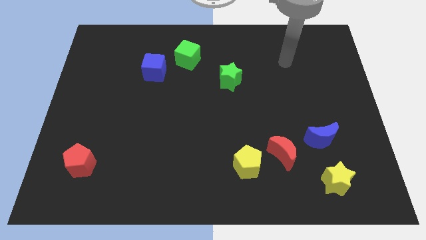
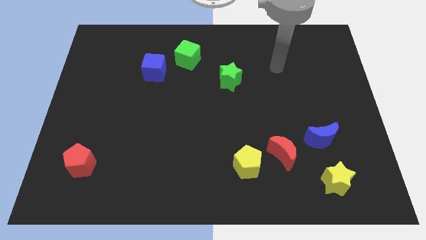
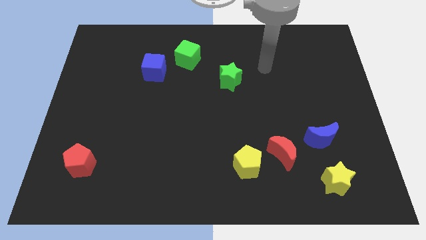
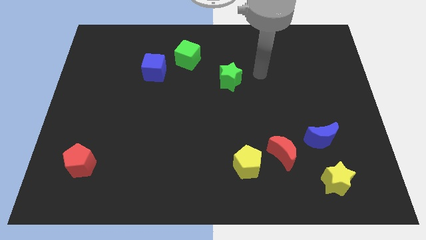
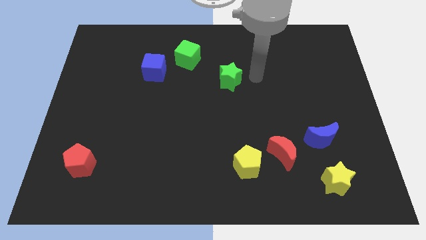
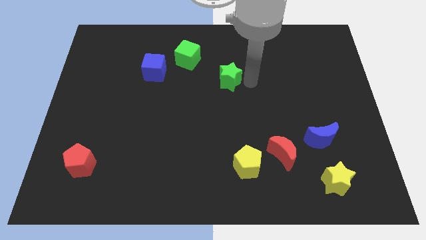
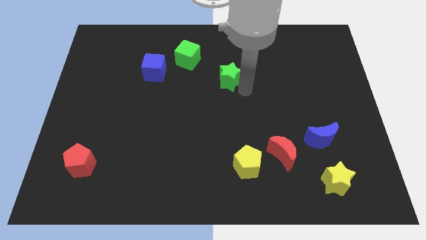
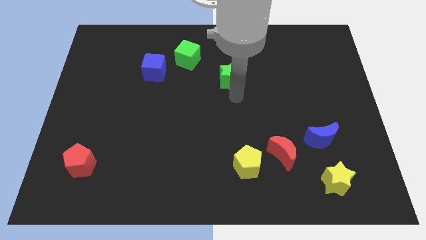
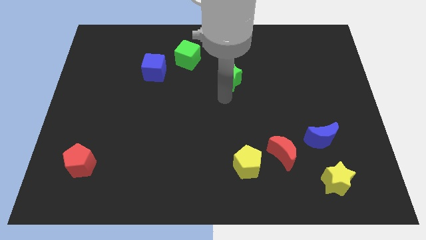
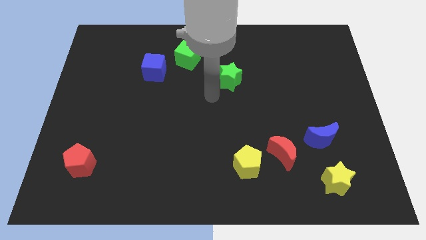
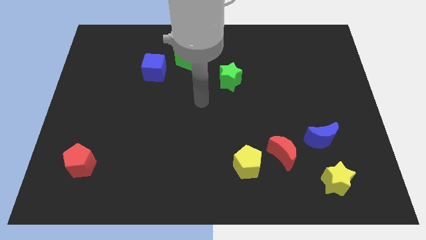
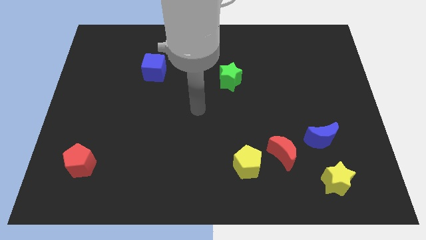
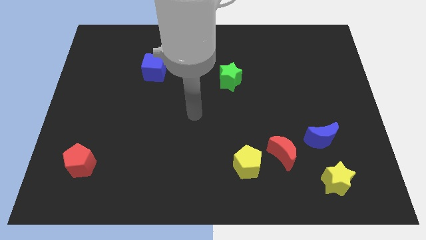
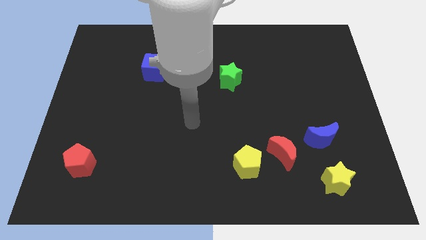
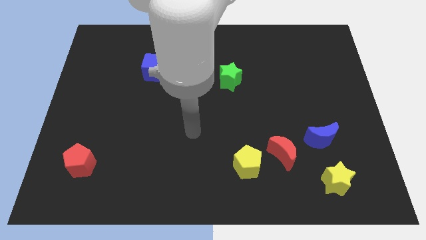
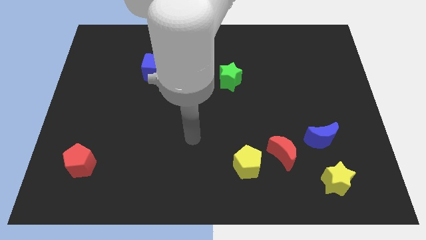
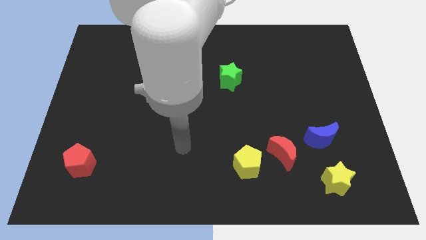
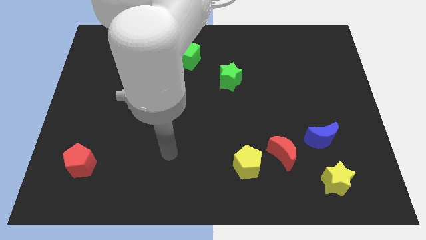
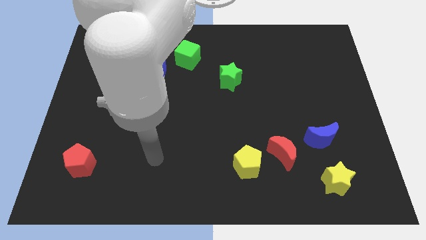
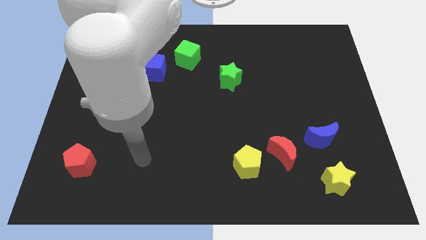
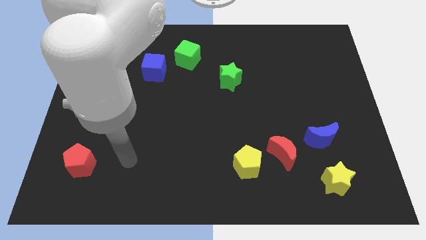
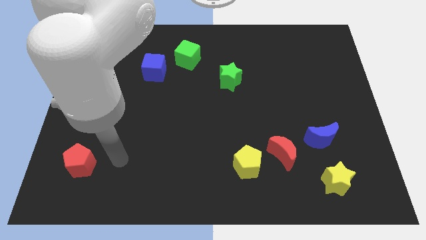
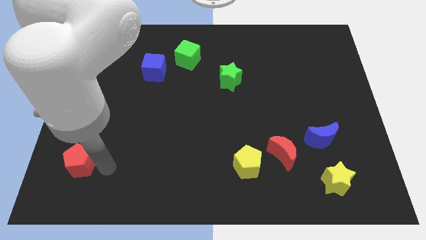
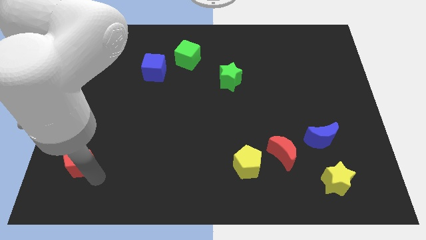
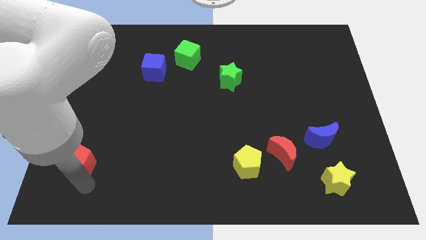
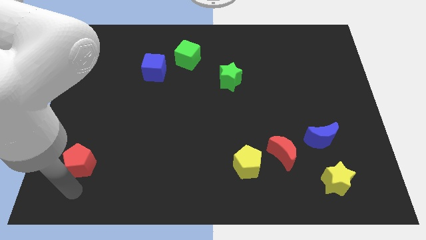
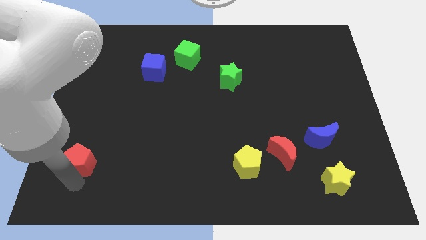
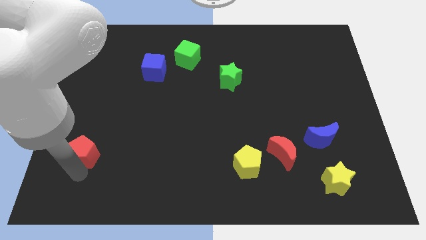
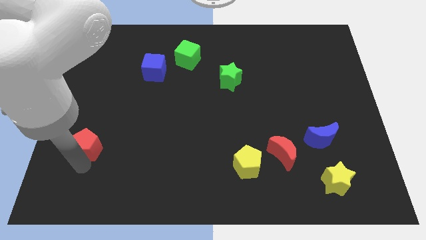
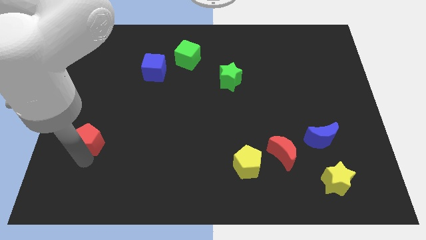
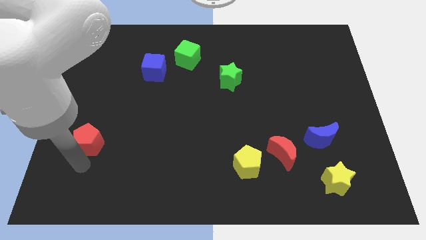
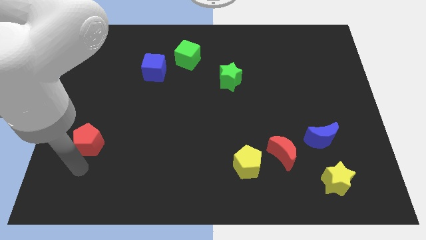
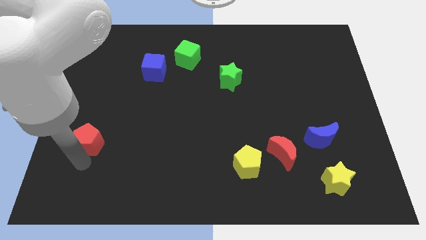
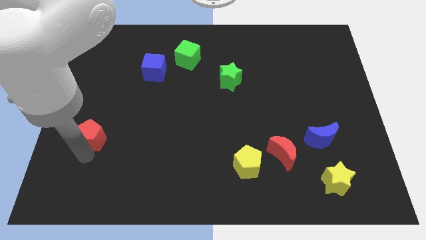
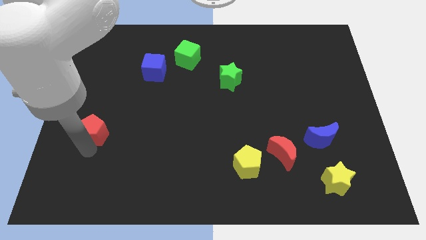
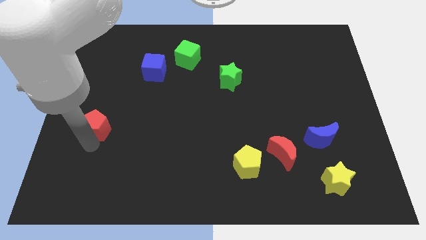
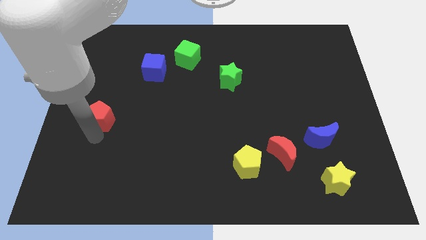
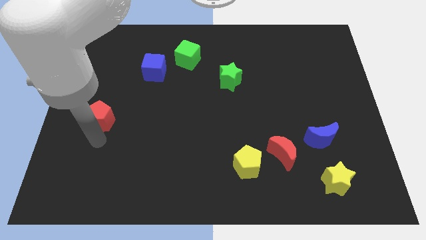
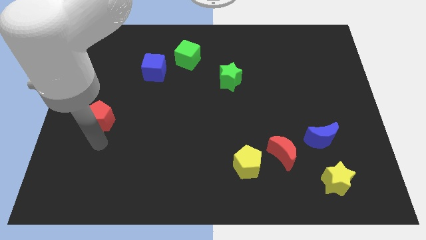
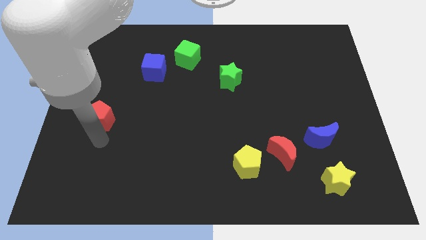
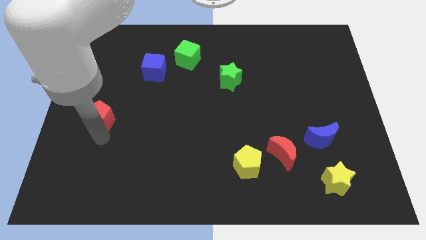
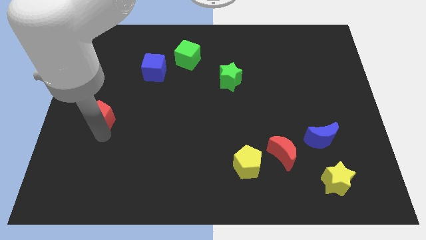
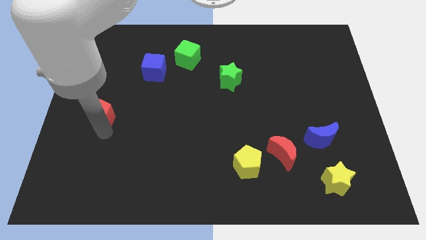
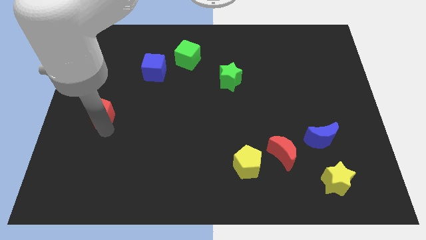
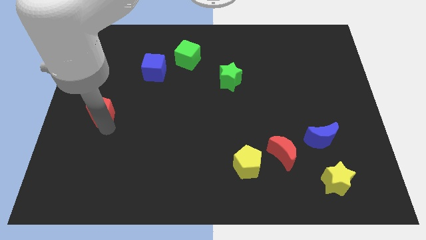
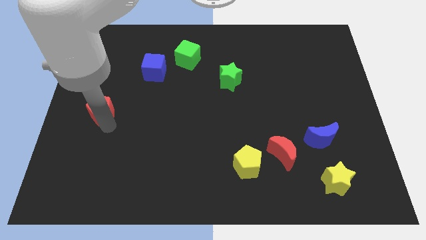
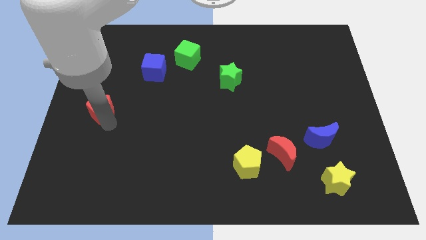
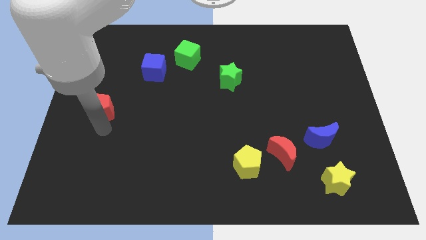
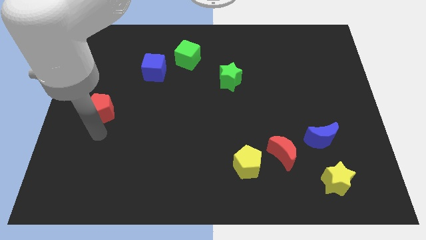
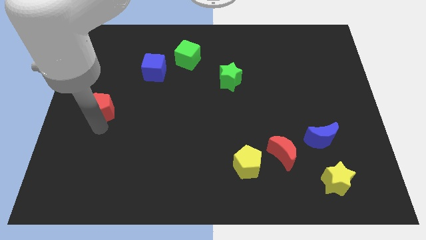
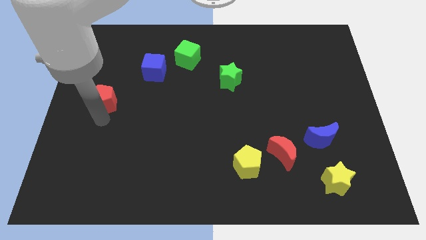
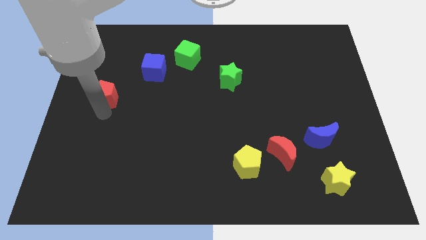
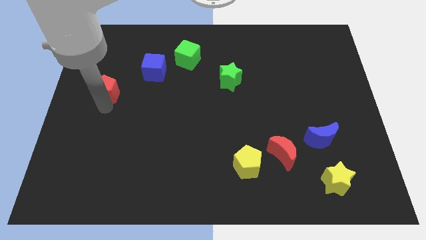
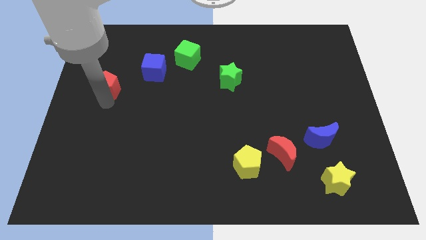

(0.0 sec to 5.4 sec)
move the red pentagon upwards

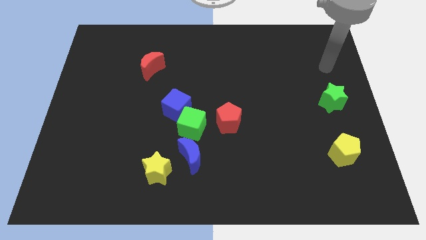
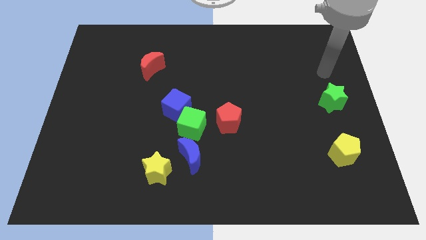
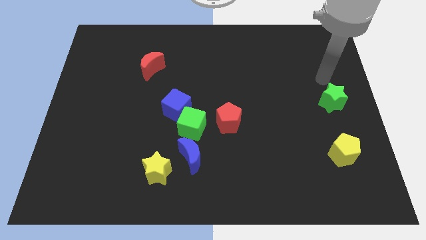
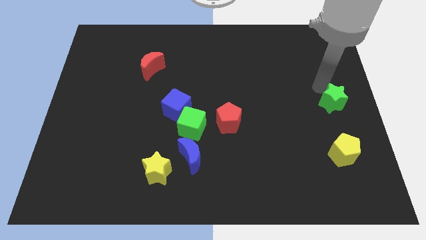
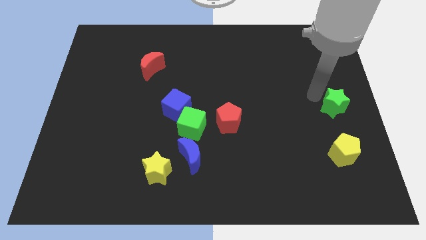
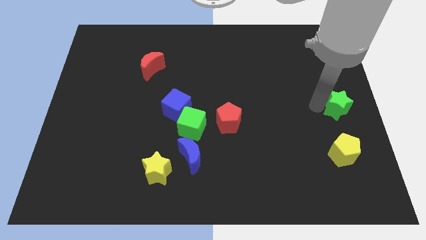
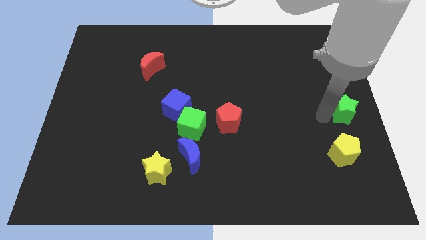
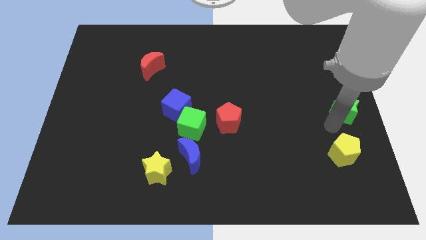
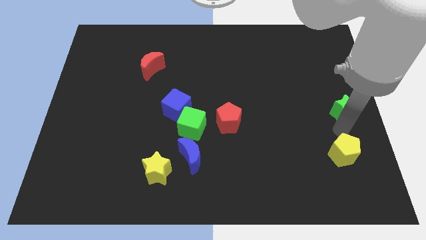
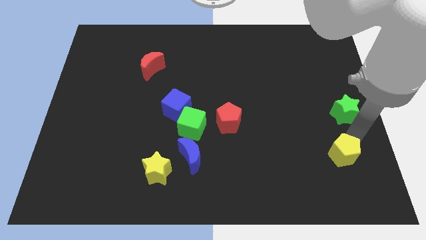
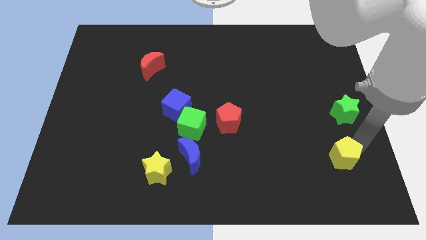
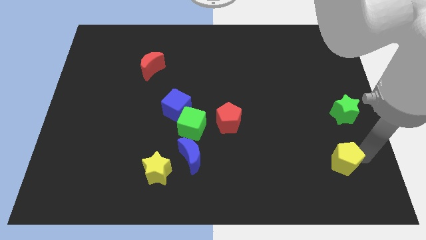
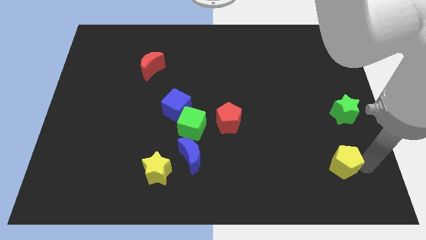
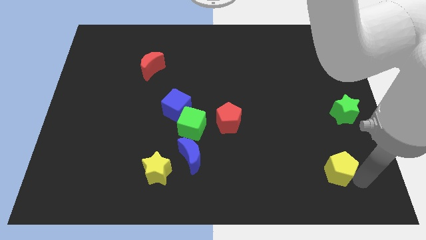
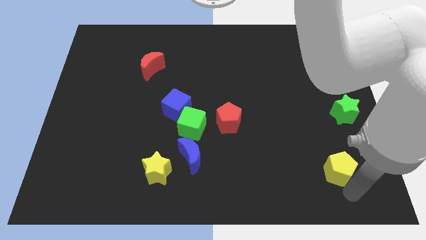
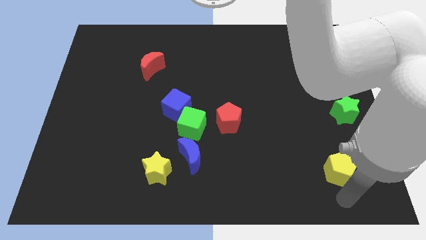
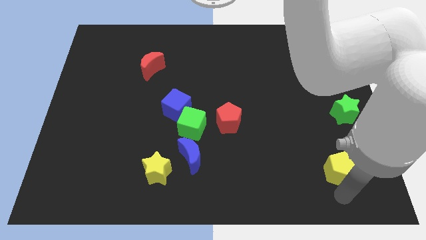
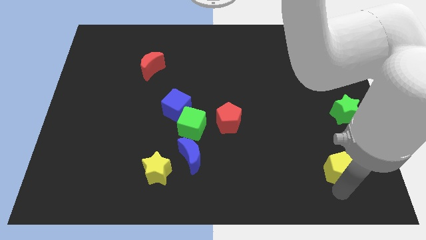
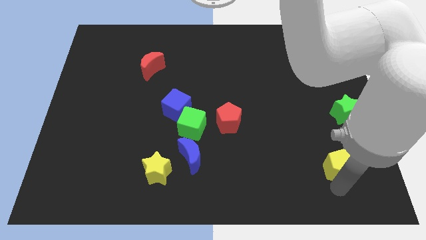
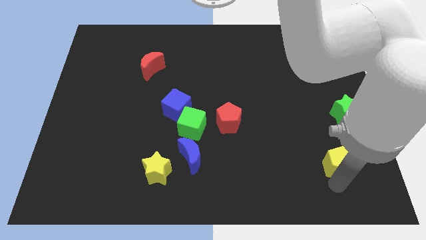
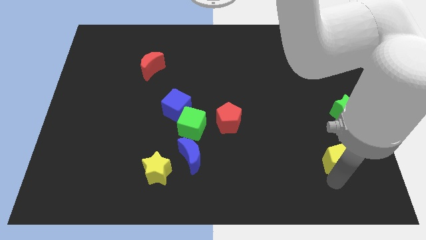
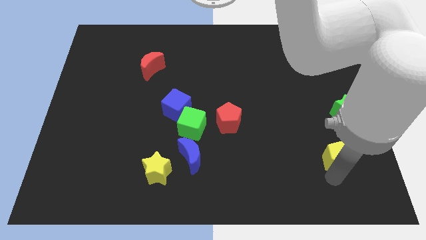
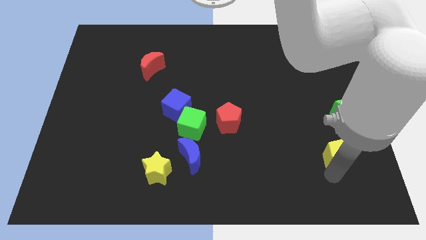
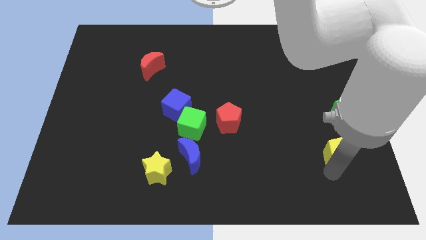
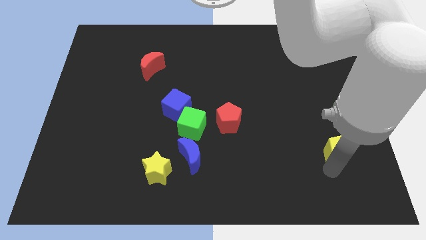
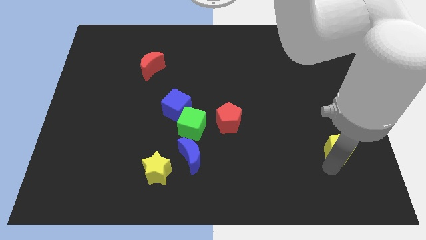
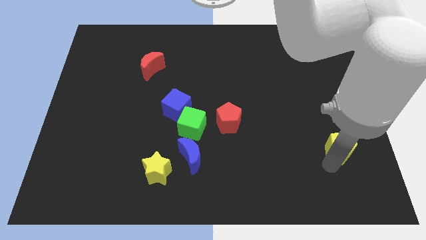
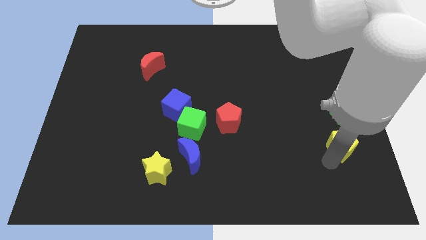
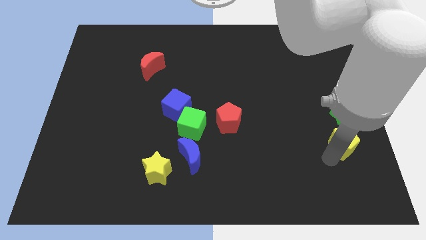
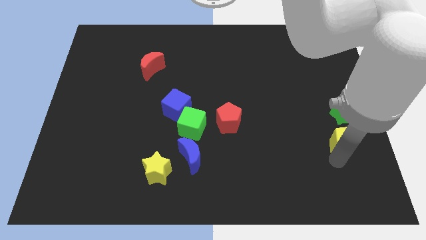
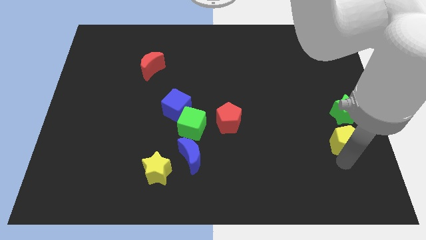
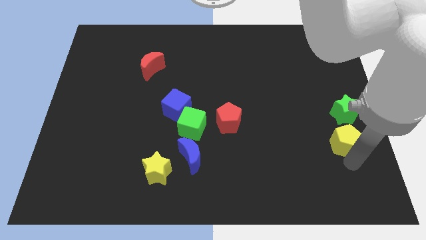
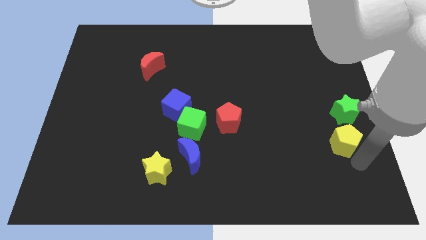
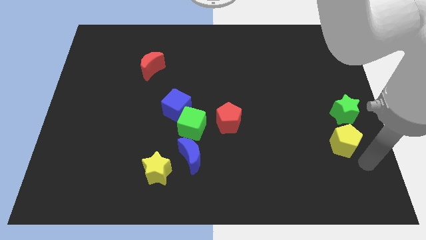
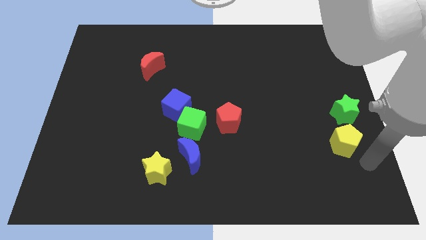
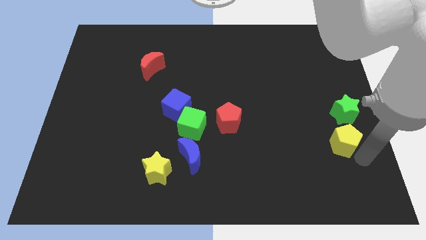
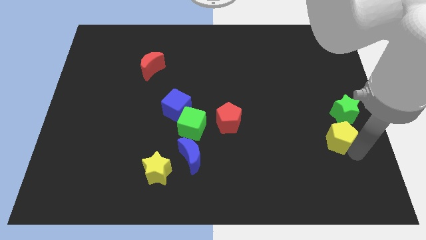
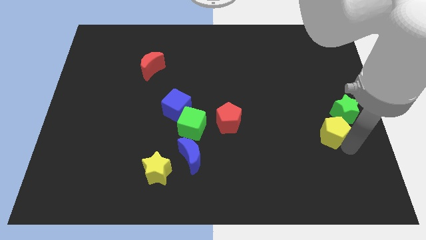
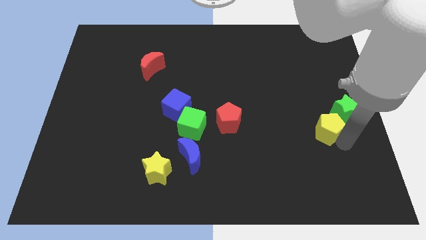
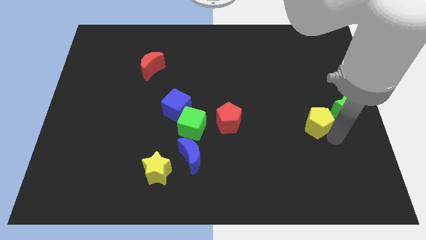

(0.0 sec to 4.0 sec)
slide the yellow pentagon up somewhat
